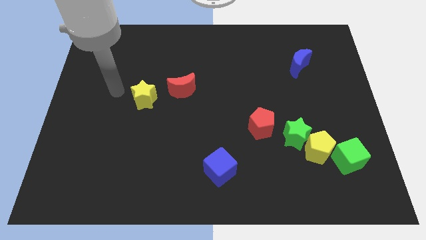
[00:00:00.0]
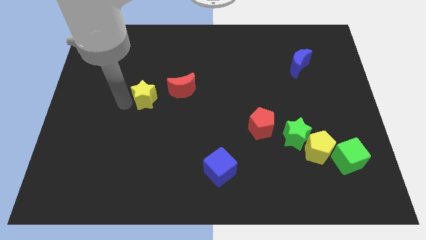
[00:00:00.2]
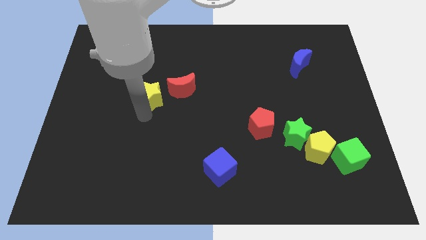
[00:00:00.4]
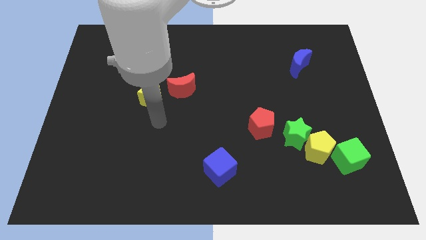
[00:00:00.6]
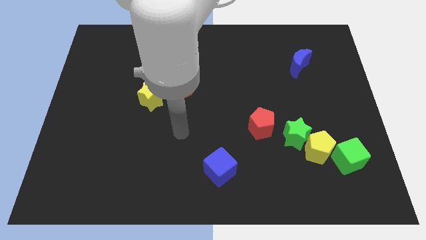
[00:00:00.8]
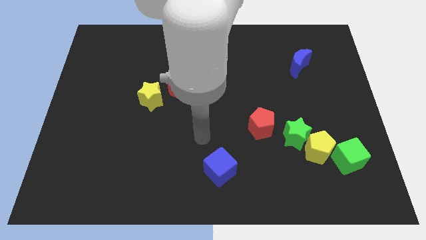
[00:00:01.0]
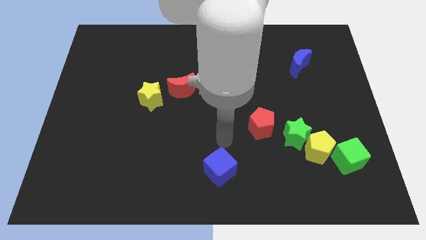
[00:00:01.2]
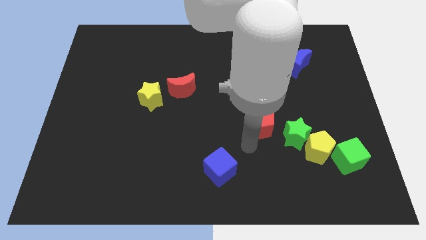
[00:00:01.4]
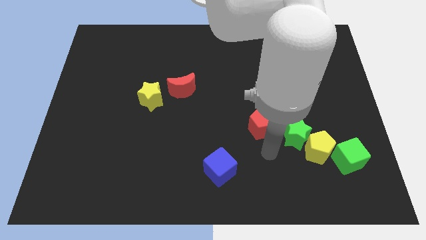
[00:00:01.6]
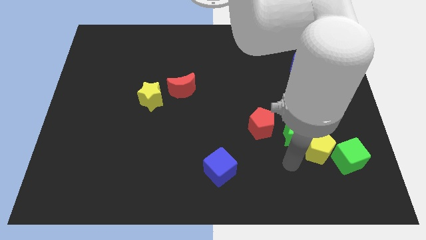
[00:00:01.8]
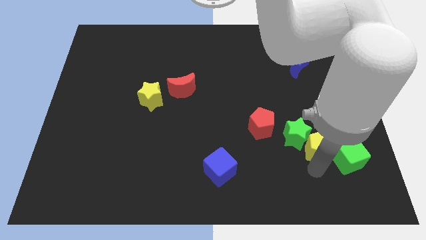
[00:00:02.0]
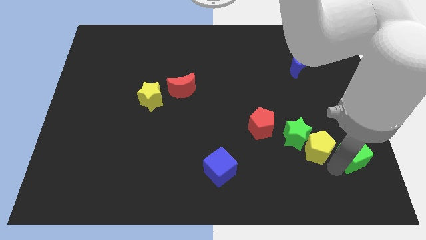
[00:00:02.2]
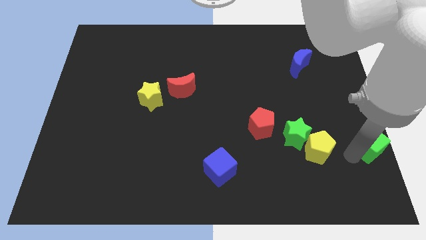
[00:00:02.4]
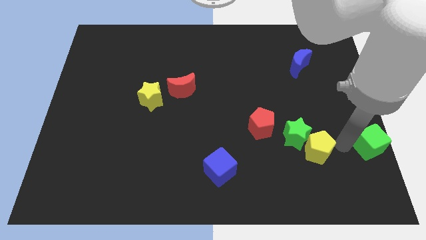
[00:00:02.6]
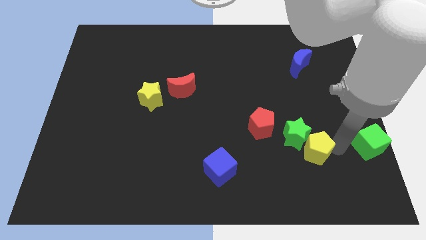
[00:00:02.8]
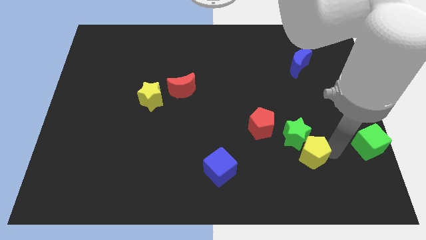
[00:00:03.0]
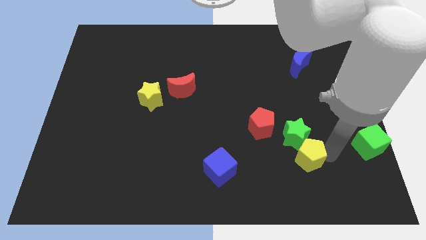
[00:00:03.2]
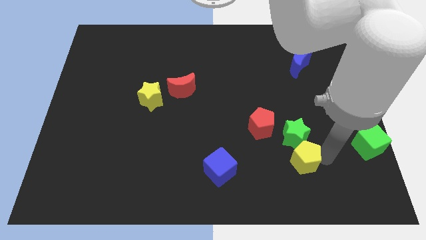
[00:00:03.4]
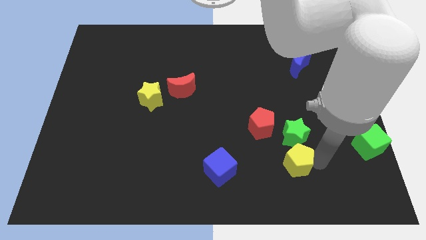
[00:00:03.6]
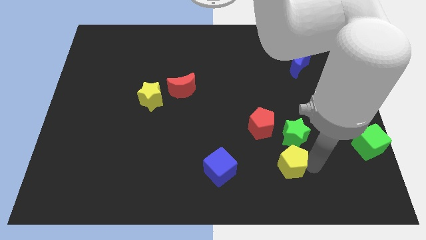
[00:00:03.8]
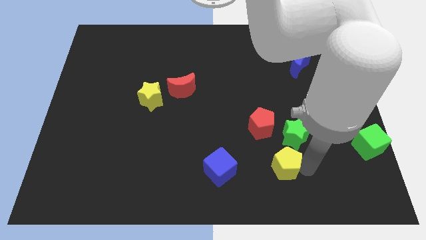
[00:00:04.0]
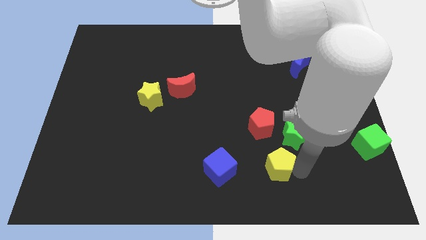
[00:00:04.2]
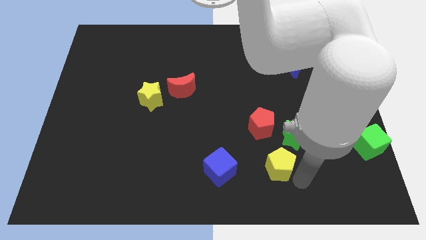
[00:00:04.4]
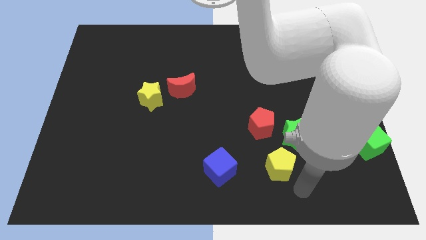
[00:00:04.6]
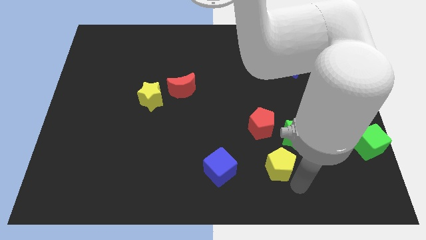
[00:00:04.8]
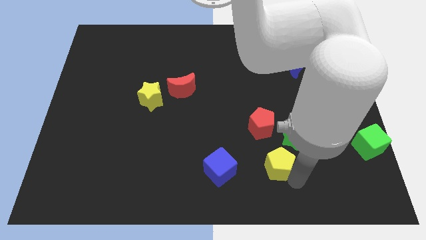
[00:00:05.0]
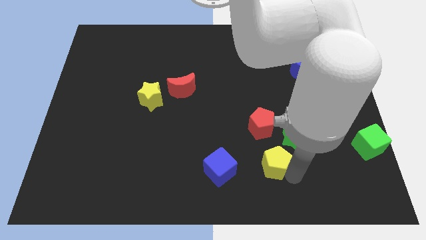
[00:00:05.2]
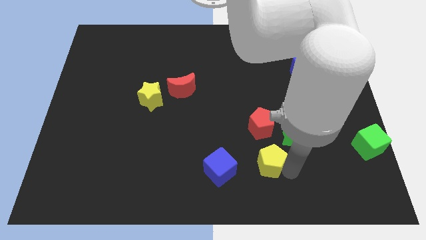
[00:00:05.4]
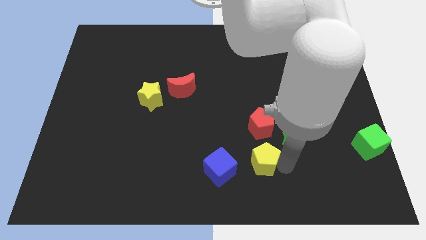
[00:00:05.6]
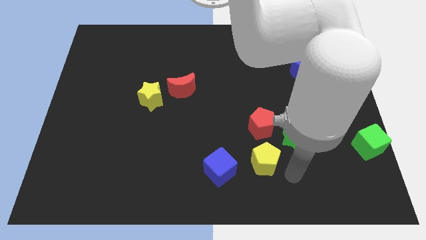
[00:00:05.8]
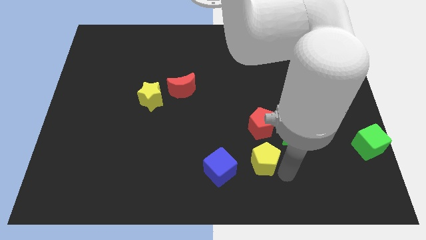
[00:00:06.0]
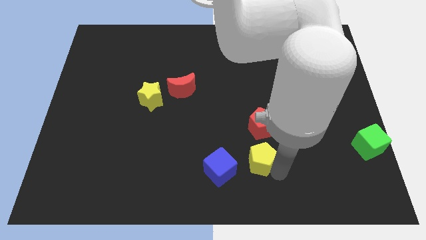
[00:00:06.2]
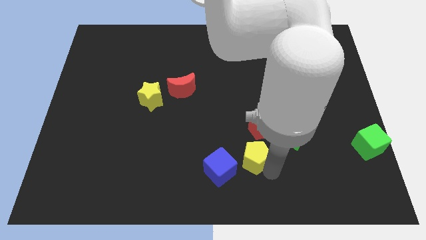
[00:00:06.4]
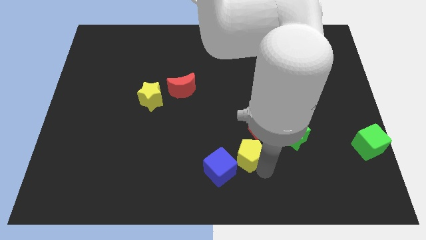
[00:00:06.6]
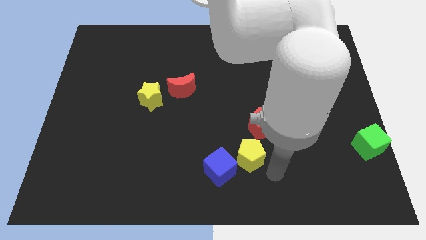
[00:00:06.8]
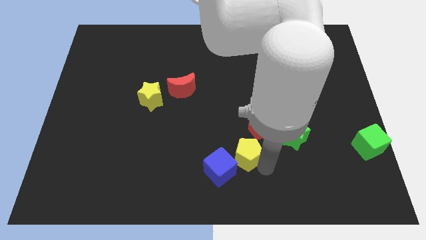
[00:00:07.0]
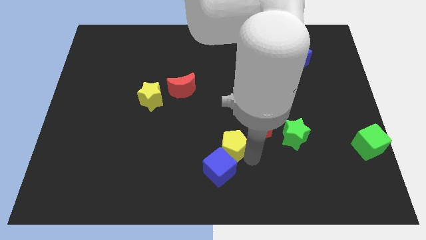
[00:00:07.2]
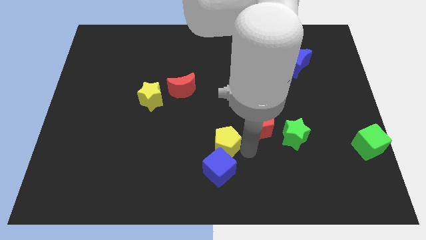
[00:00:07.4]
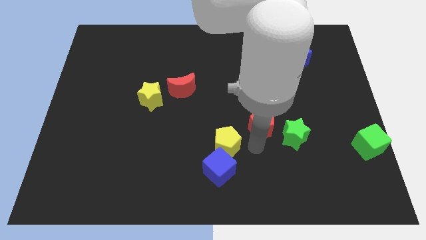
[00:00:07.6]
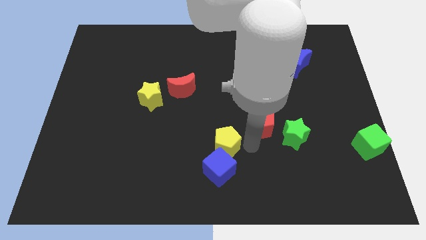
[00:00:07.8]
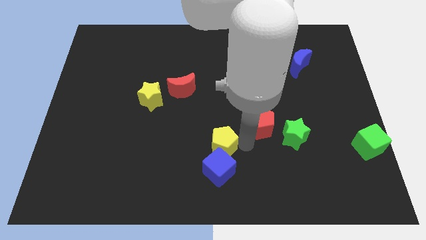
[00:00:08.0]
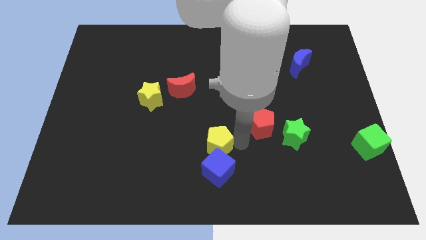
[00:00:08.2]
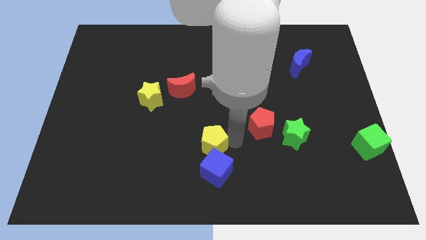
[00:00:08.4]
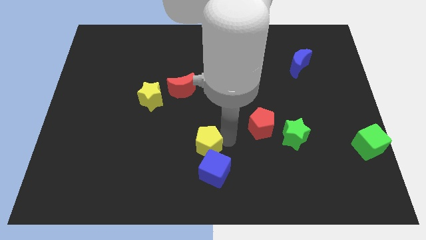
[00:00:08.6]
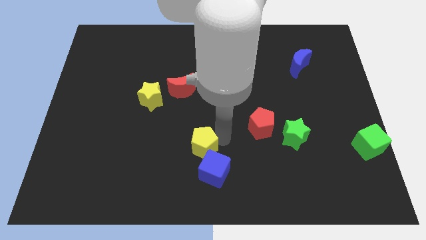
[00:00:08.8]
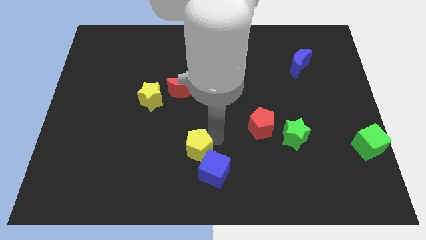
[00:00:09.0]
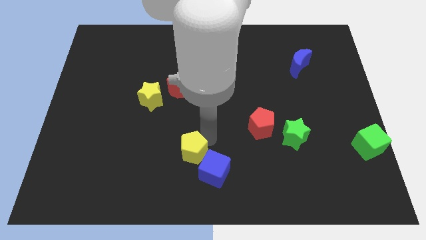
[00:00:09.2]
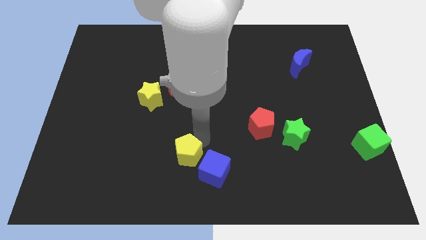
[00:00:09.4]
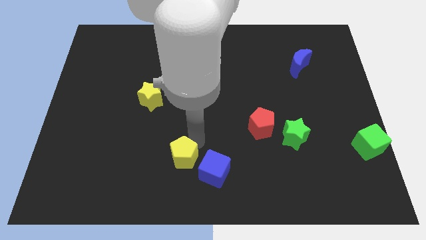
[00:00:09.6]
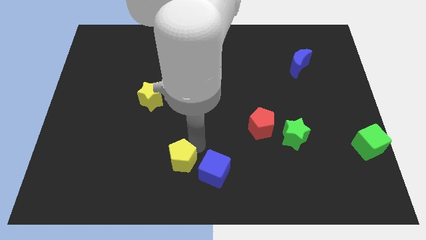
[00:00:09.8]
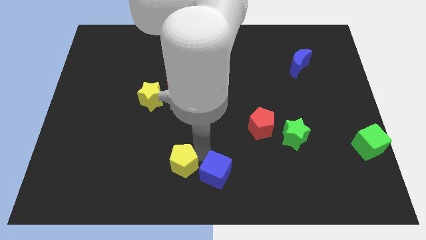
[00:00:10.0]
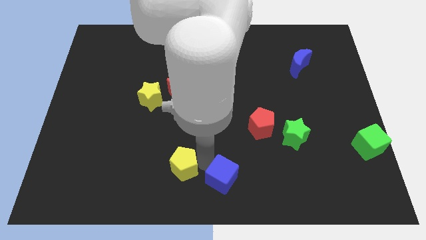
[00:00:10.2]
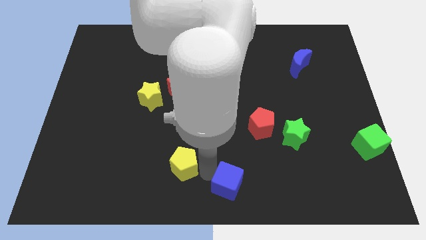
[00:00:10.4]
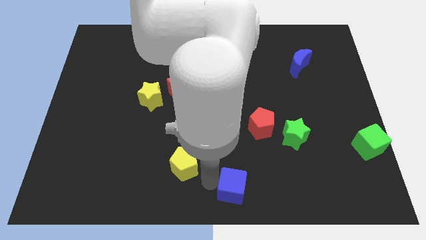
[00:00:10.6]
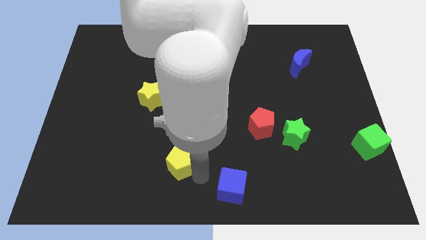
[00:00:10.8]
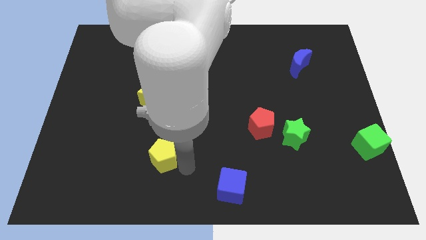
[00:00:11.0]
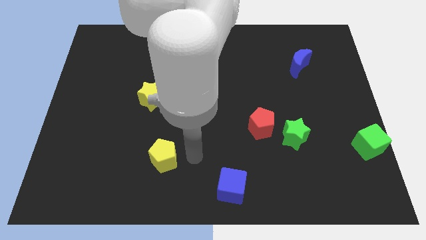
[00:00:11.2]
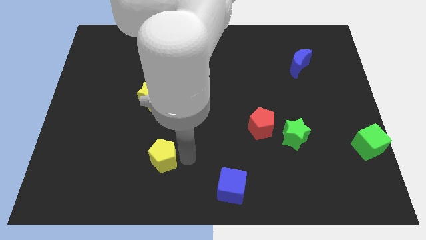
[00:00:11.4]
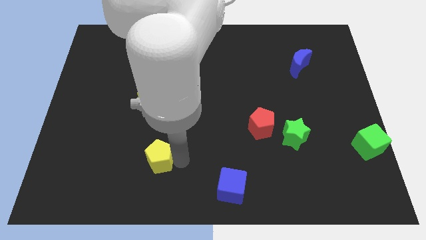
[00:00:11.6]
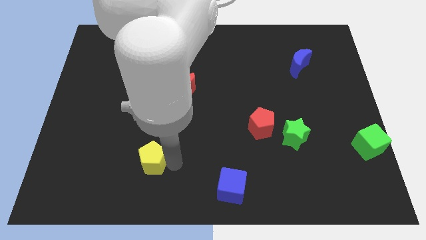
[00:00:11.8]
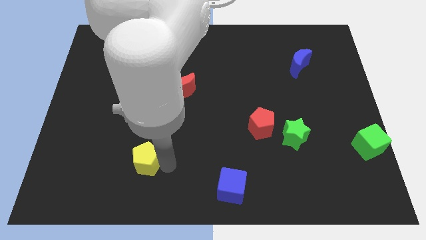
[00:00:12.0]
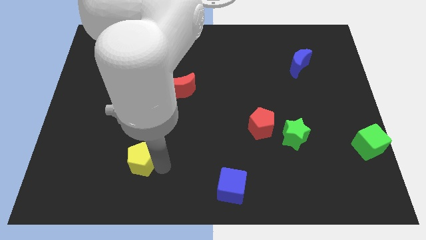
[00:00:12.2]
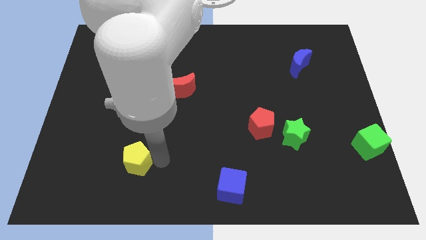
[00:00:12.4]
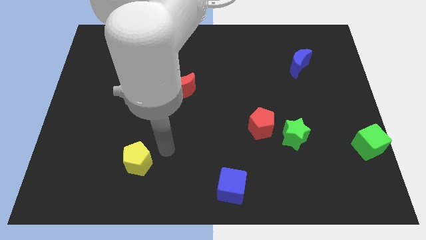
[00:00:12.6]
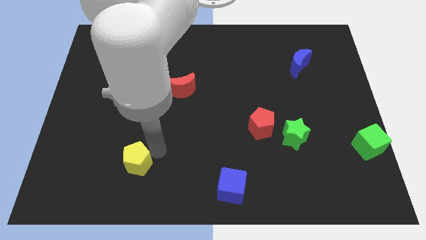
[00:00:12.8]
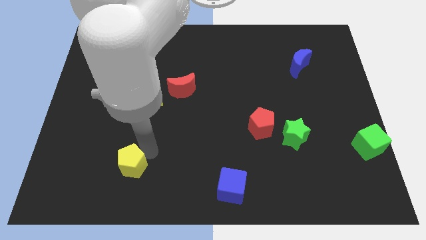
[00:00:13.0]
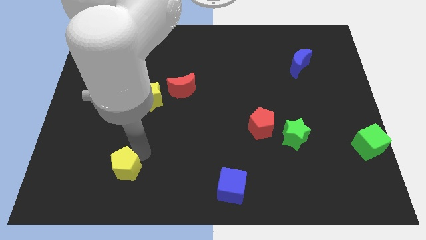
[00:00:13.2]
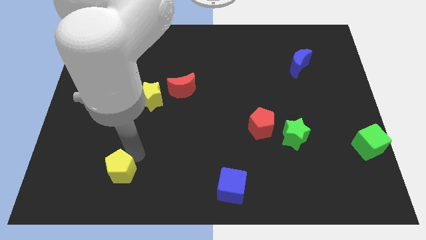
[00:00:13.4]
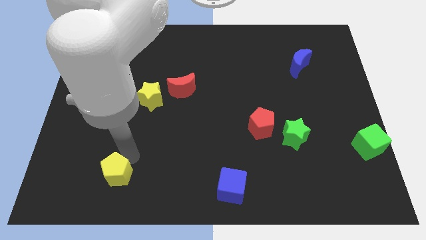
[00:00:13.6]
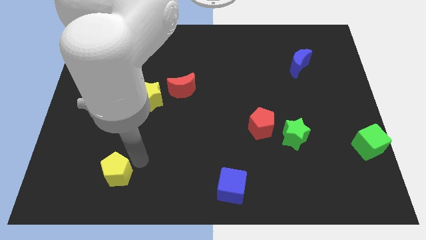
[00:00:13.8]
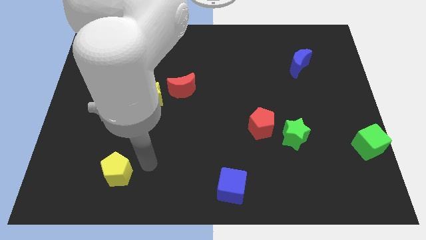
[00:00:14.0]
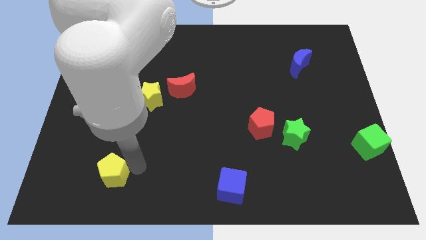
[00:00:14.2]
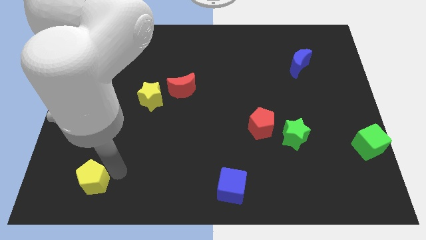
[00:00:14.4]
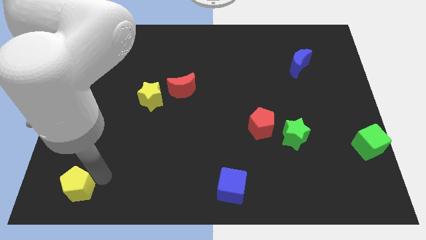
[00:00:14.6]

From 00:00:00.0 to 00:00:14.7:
slide the yellow pentagon to the bottom left of the board

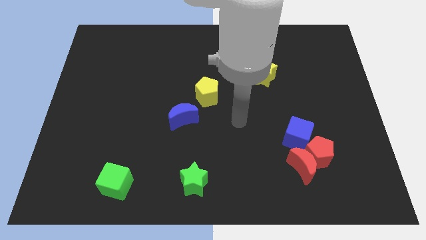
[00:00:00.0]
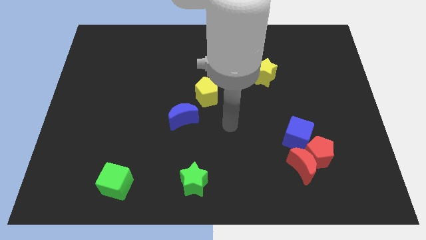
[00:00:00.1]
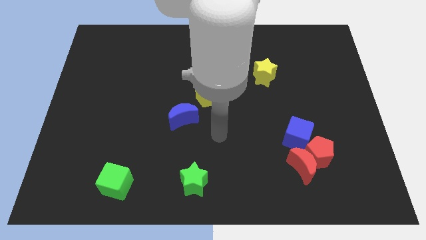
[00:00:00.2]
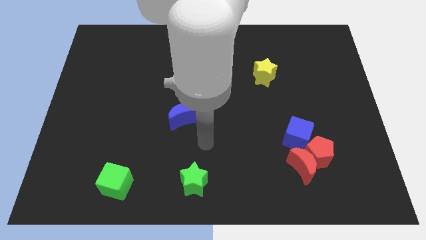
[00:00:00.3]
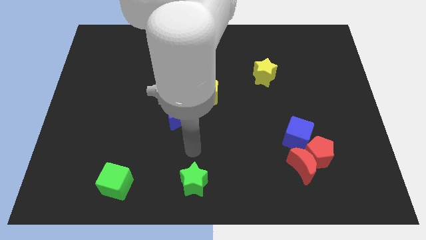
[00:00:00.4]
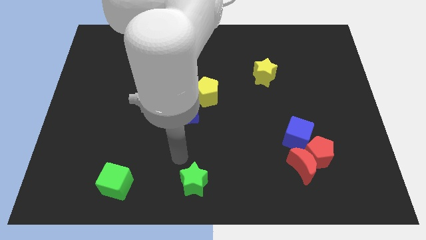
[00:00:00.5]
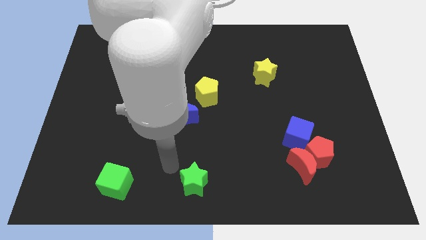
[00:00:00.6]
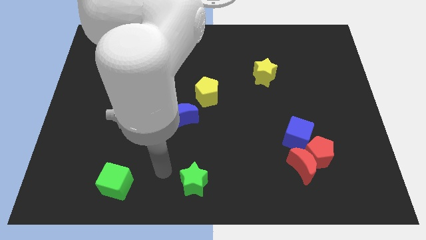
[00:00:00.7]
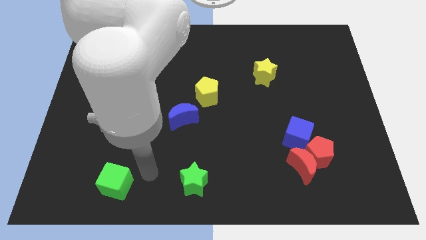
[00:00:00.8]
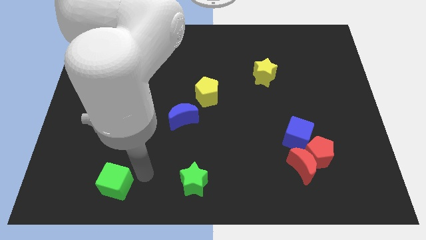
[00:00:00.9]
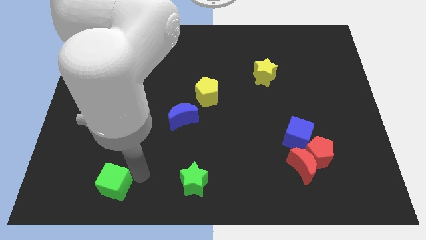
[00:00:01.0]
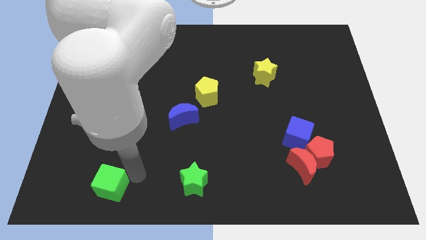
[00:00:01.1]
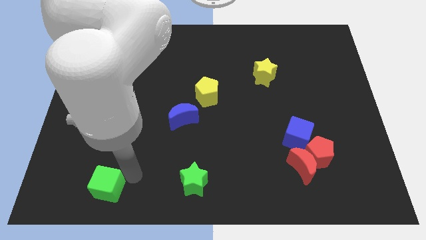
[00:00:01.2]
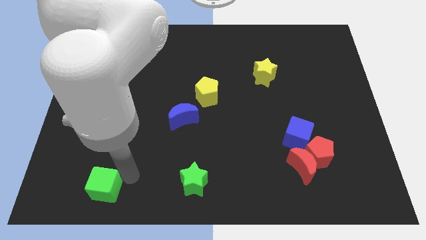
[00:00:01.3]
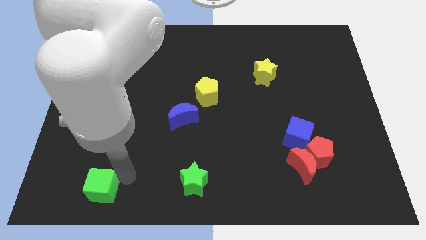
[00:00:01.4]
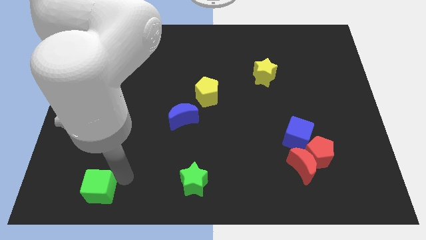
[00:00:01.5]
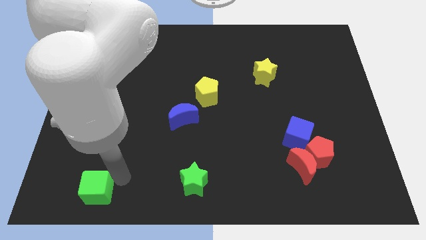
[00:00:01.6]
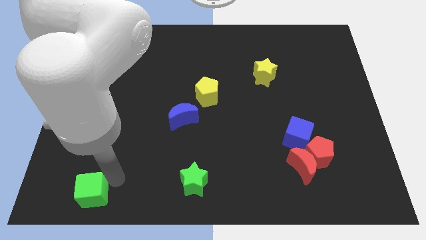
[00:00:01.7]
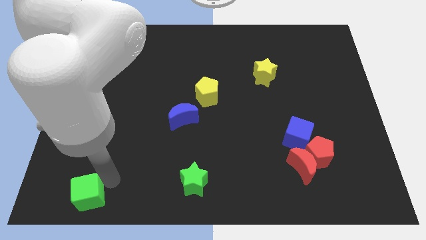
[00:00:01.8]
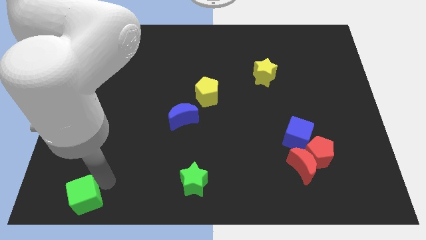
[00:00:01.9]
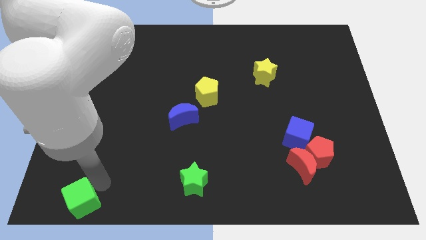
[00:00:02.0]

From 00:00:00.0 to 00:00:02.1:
move the green cube to the bottom left corner
